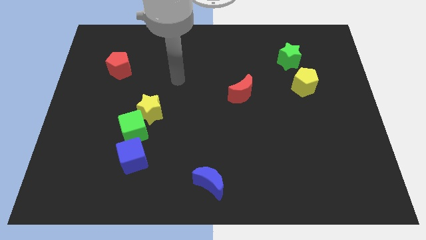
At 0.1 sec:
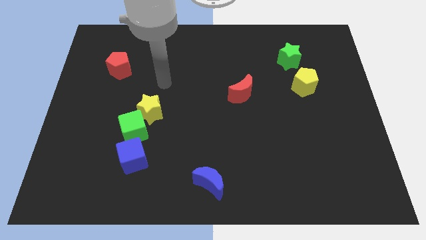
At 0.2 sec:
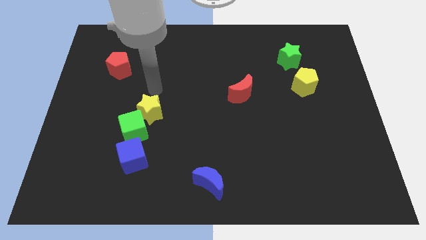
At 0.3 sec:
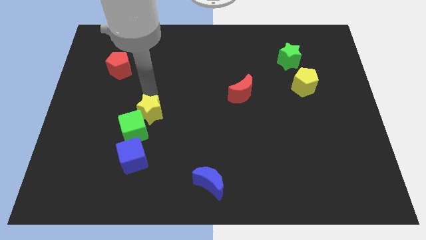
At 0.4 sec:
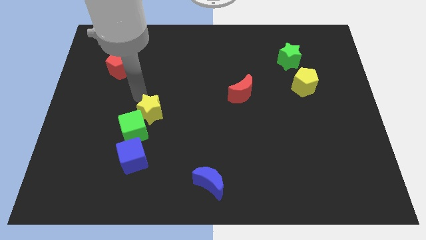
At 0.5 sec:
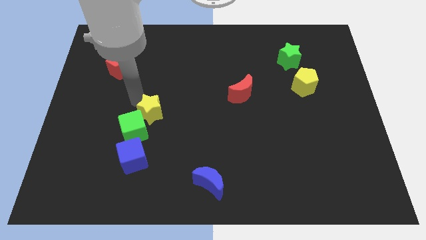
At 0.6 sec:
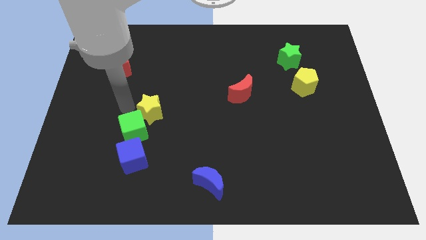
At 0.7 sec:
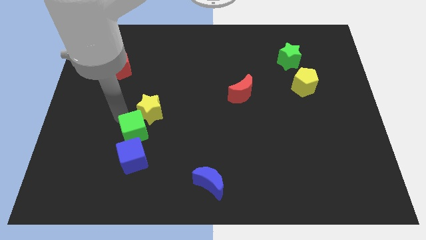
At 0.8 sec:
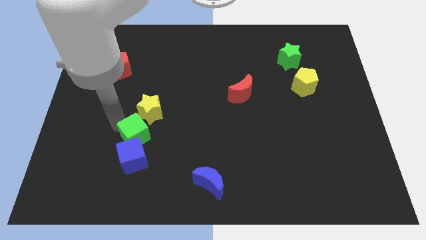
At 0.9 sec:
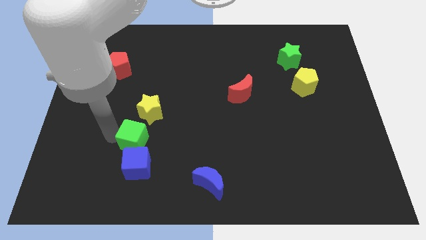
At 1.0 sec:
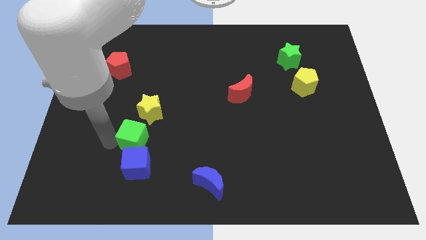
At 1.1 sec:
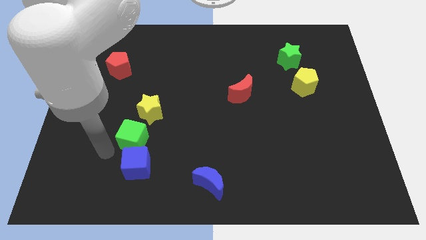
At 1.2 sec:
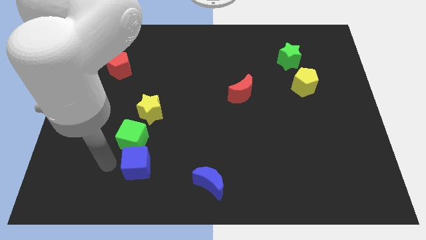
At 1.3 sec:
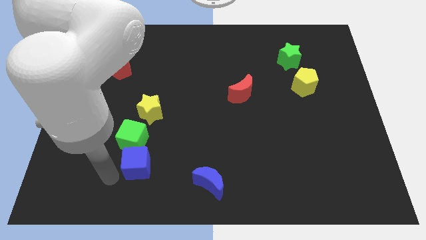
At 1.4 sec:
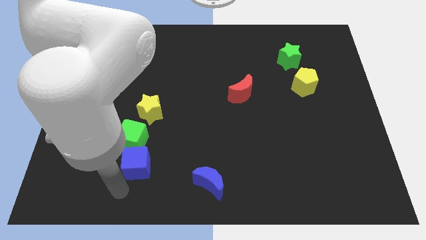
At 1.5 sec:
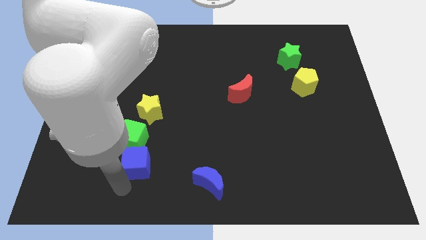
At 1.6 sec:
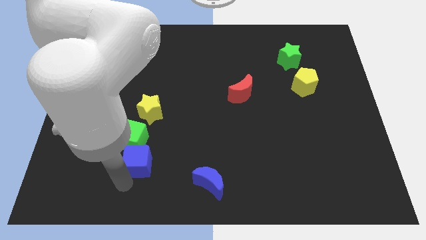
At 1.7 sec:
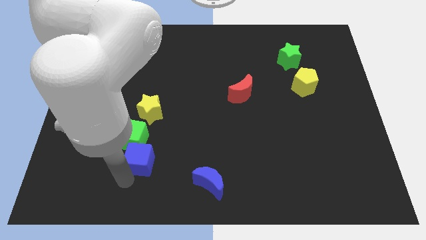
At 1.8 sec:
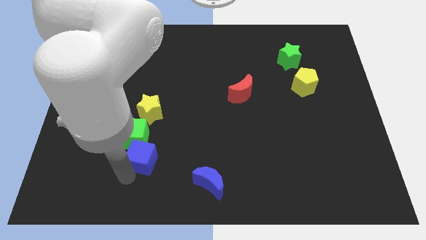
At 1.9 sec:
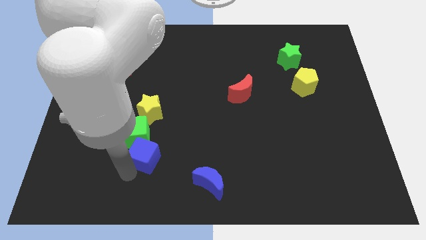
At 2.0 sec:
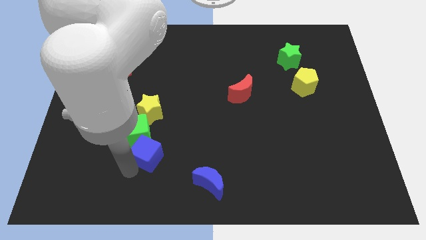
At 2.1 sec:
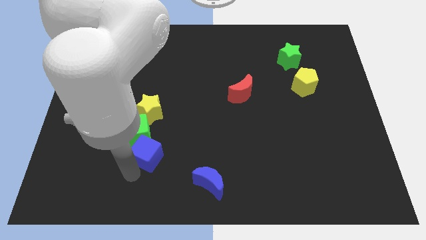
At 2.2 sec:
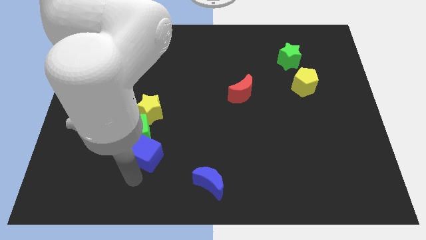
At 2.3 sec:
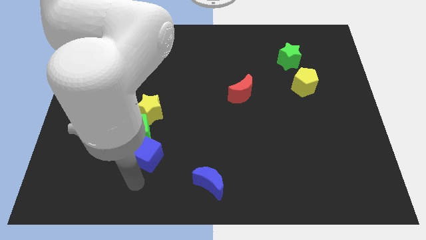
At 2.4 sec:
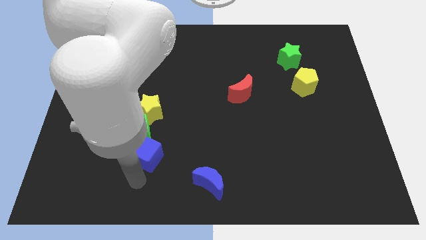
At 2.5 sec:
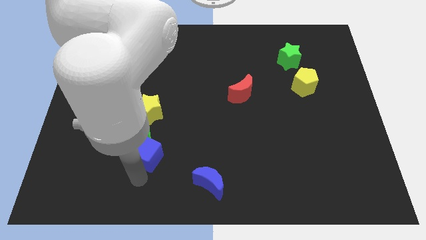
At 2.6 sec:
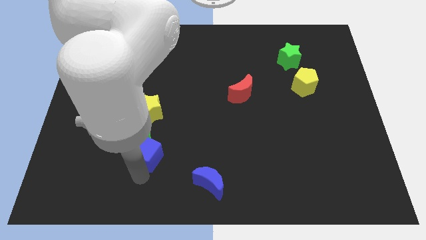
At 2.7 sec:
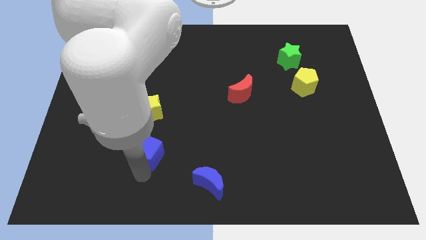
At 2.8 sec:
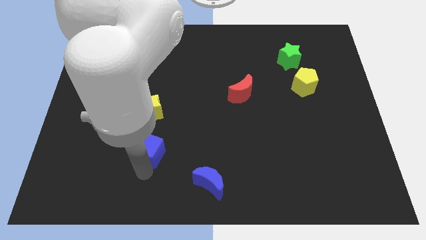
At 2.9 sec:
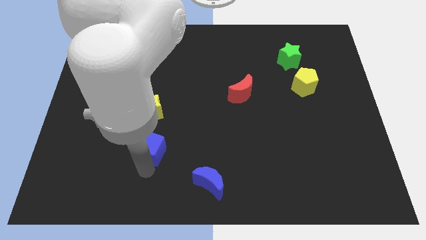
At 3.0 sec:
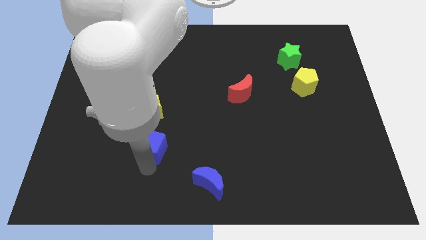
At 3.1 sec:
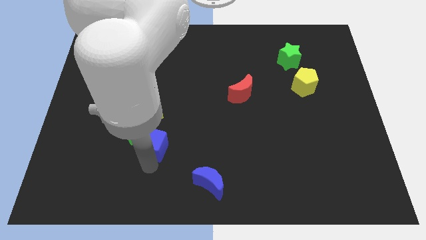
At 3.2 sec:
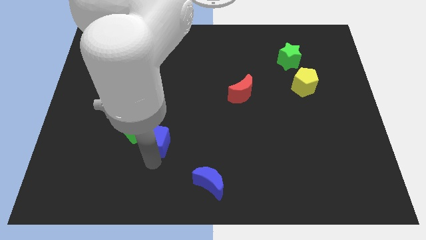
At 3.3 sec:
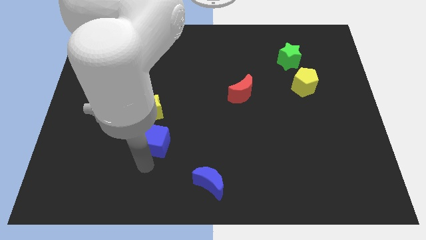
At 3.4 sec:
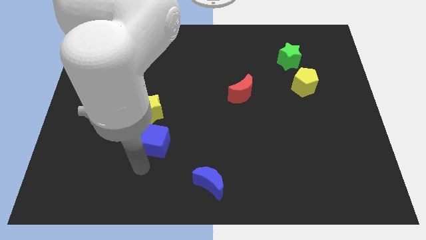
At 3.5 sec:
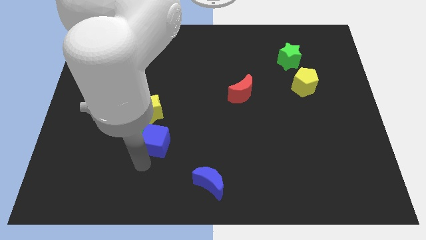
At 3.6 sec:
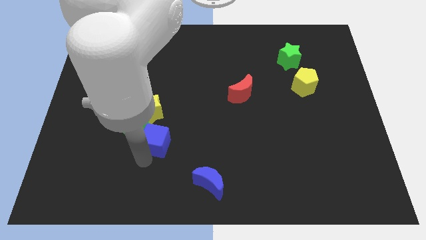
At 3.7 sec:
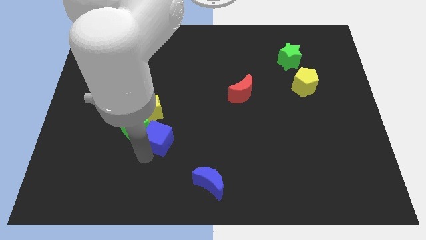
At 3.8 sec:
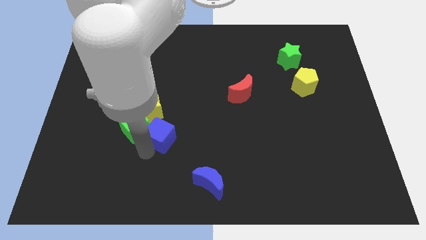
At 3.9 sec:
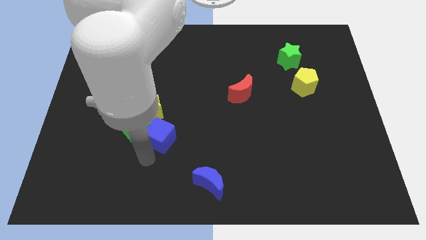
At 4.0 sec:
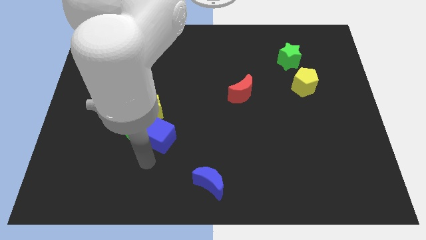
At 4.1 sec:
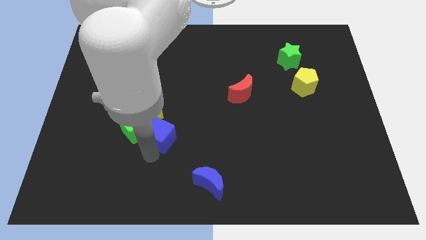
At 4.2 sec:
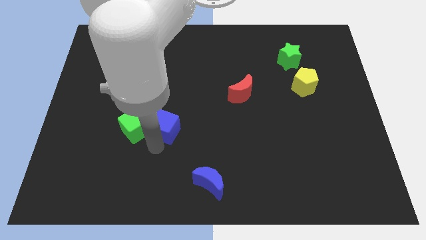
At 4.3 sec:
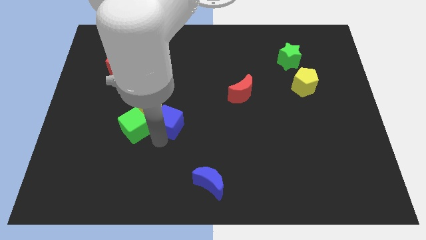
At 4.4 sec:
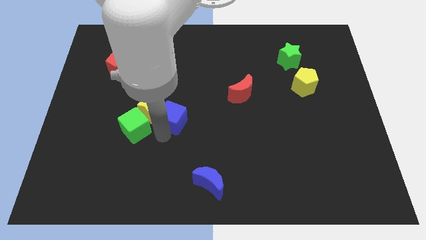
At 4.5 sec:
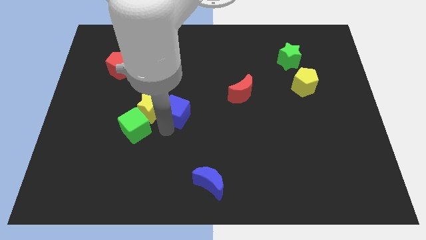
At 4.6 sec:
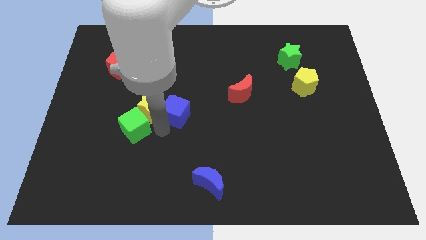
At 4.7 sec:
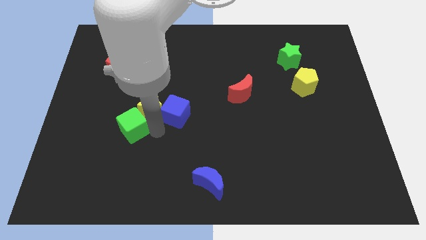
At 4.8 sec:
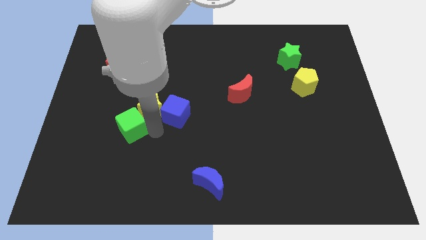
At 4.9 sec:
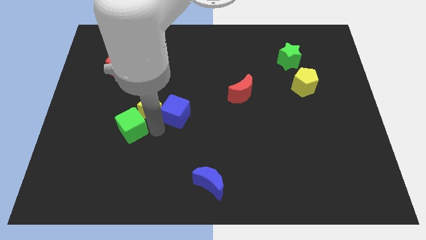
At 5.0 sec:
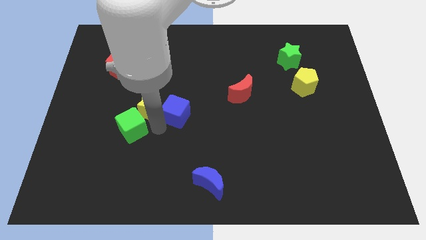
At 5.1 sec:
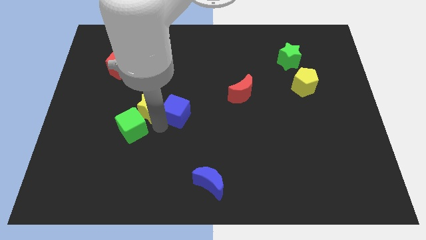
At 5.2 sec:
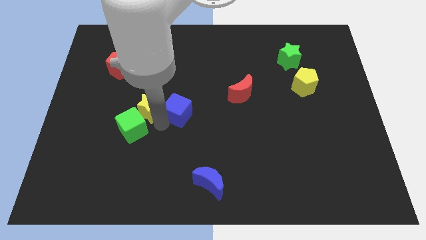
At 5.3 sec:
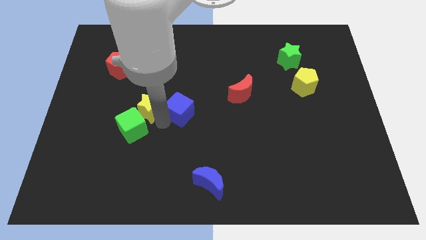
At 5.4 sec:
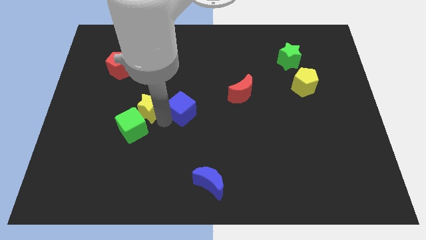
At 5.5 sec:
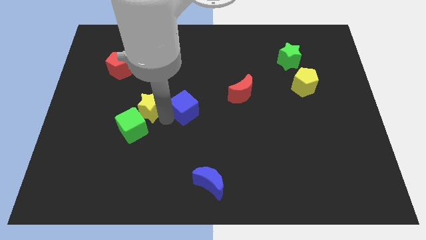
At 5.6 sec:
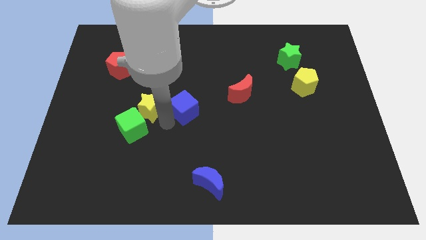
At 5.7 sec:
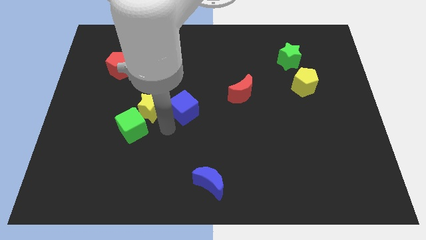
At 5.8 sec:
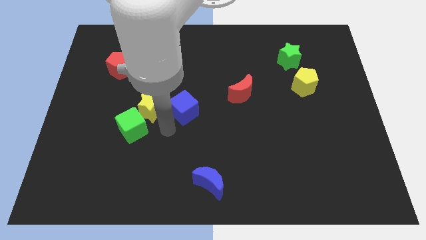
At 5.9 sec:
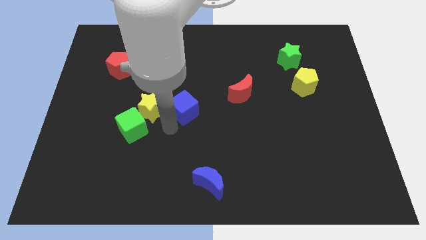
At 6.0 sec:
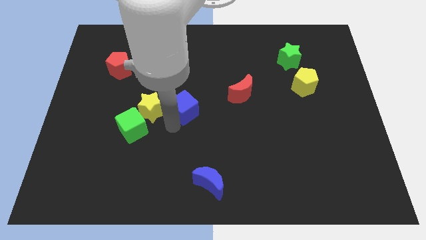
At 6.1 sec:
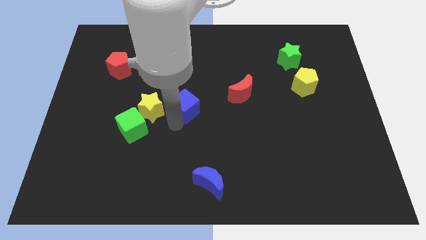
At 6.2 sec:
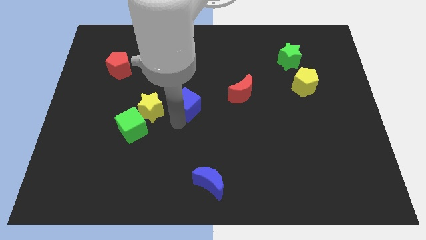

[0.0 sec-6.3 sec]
put the blue cube left of the red moon
